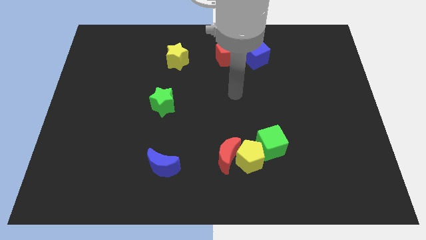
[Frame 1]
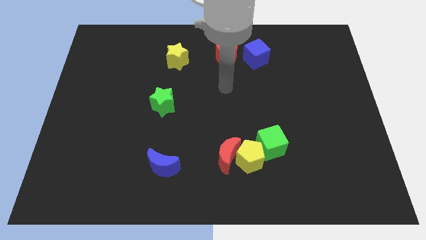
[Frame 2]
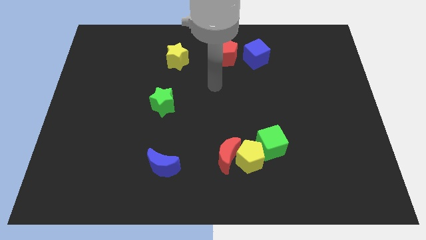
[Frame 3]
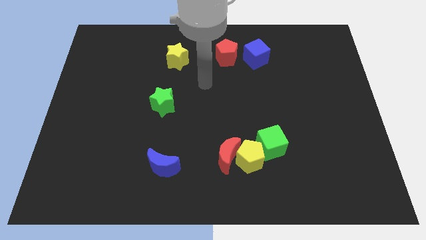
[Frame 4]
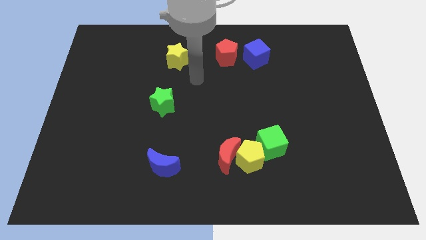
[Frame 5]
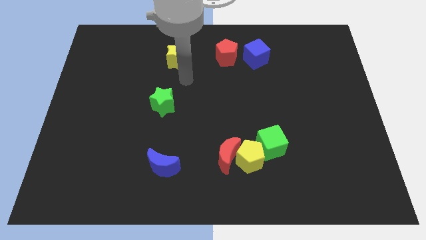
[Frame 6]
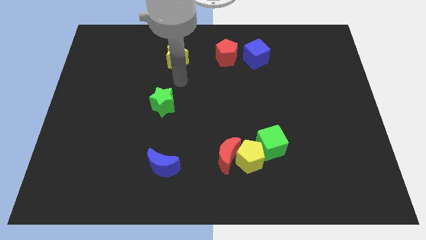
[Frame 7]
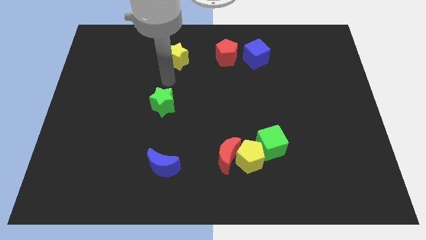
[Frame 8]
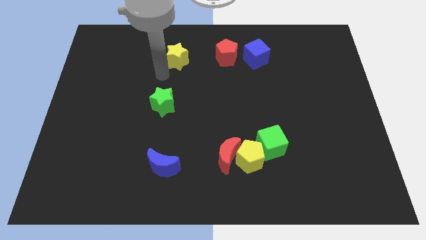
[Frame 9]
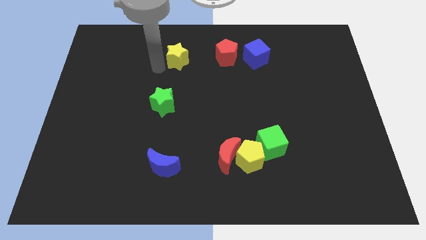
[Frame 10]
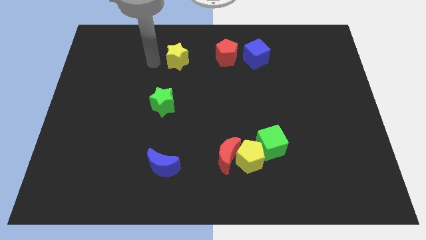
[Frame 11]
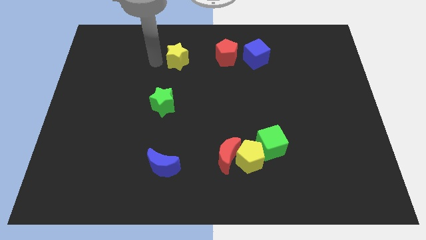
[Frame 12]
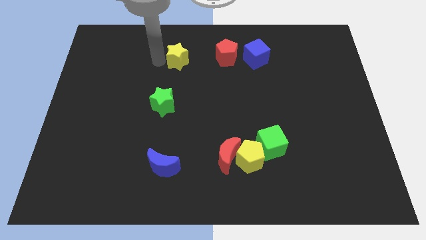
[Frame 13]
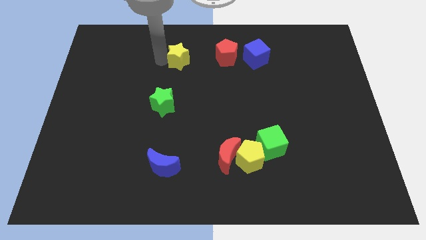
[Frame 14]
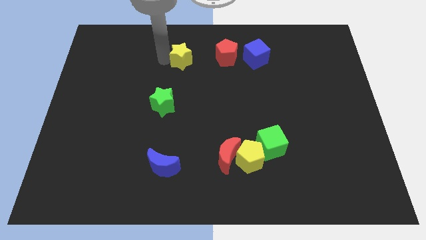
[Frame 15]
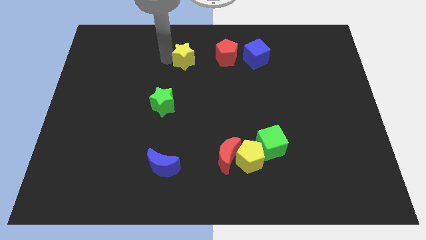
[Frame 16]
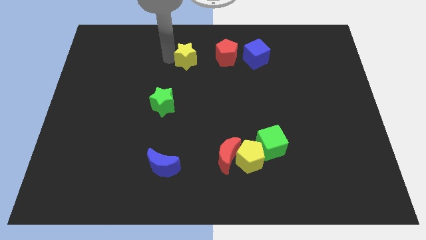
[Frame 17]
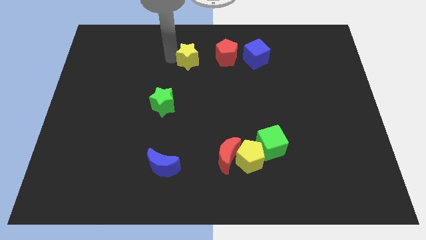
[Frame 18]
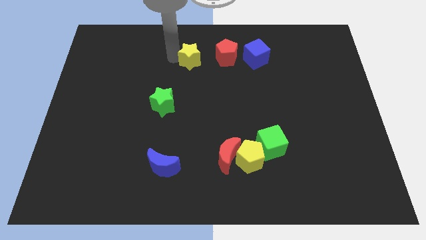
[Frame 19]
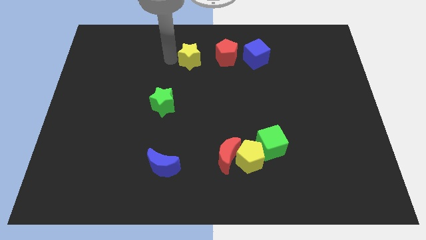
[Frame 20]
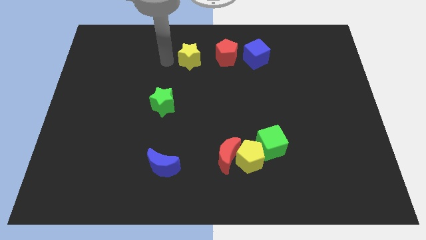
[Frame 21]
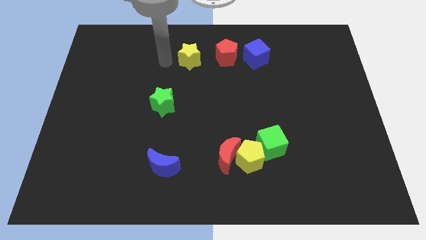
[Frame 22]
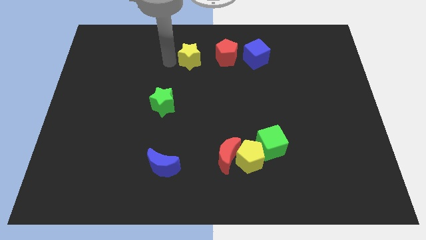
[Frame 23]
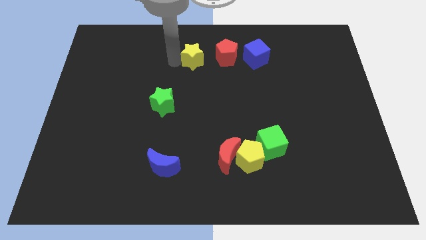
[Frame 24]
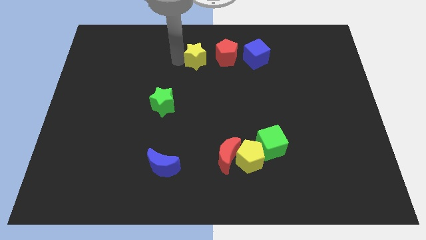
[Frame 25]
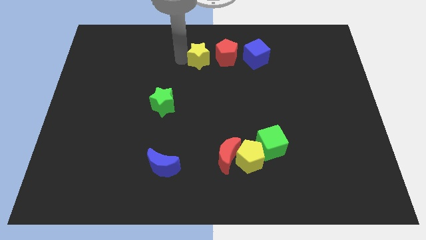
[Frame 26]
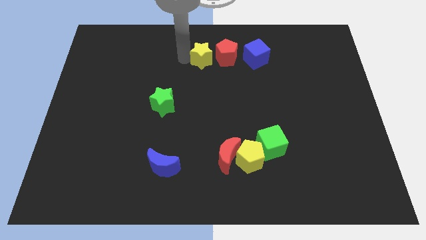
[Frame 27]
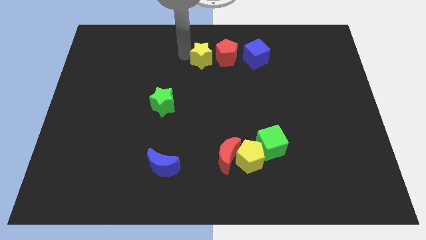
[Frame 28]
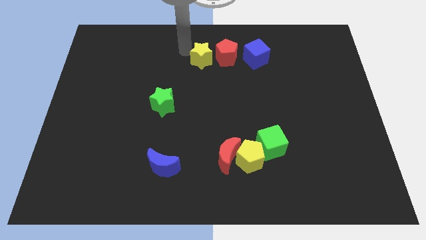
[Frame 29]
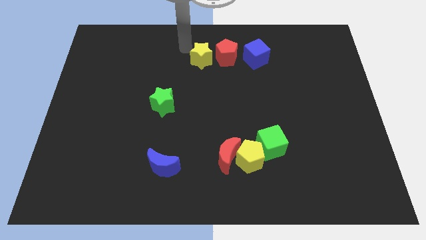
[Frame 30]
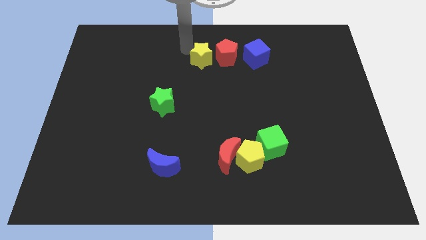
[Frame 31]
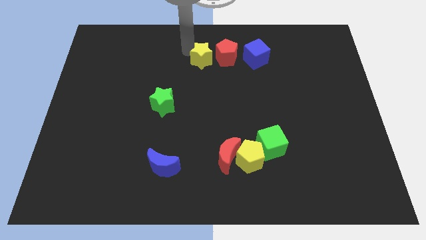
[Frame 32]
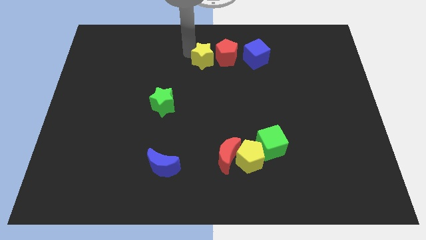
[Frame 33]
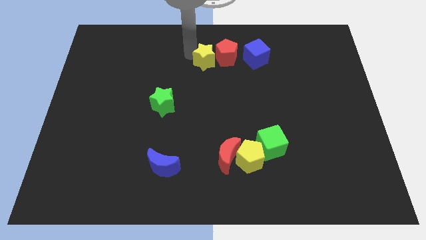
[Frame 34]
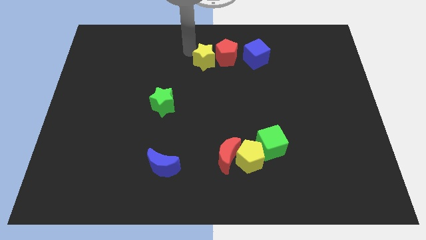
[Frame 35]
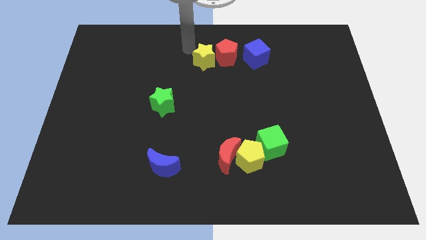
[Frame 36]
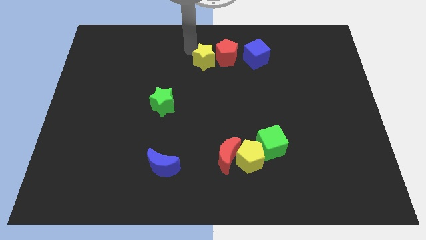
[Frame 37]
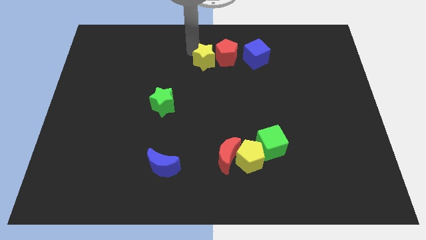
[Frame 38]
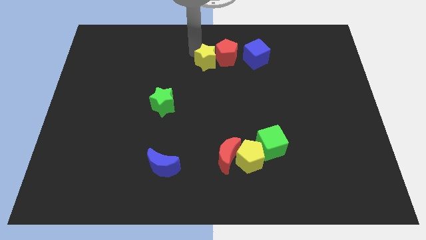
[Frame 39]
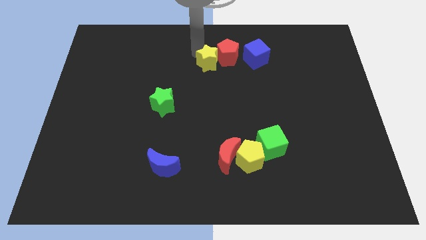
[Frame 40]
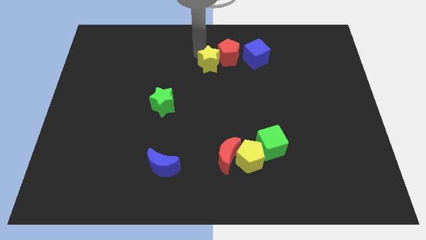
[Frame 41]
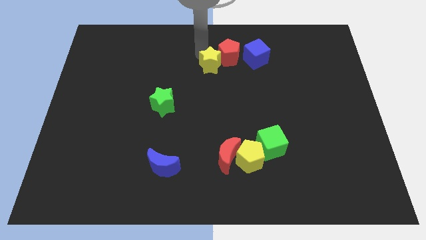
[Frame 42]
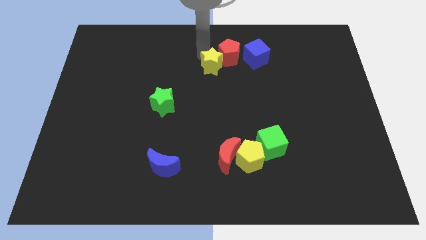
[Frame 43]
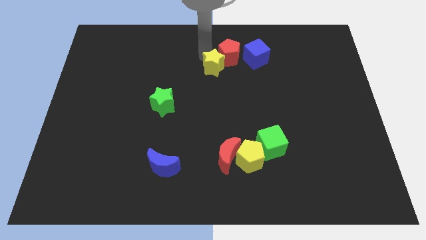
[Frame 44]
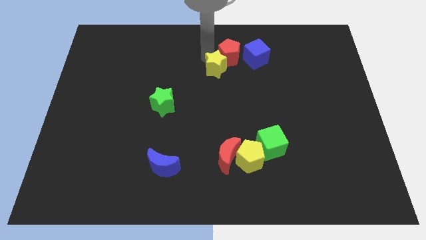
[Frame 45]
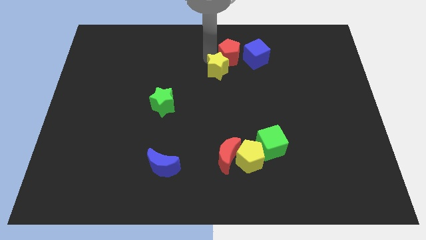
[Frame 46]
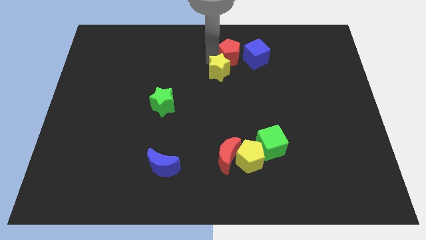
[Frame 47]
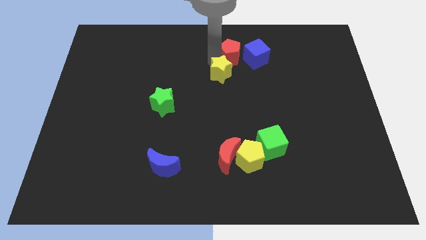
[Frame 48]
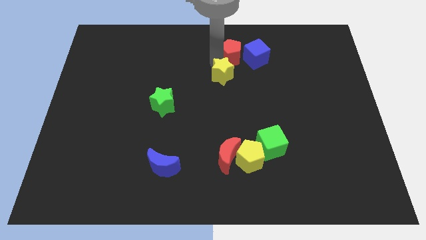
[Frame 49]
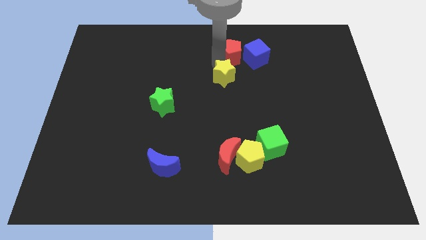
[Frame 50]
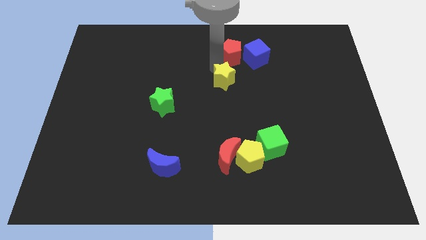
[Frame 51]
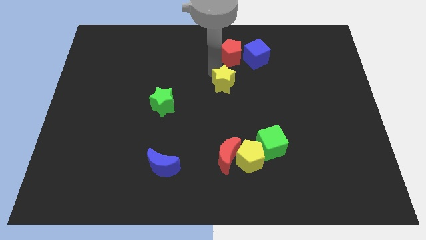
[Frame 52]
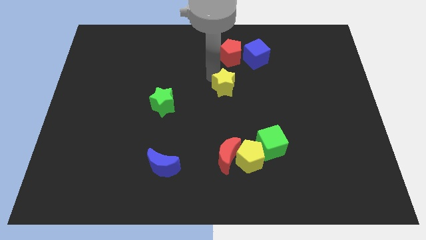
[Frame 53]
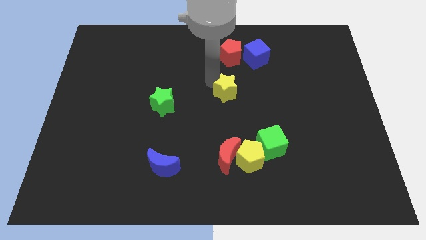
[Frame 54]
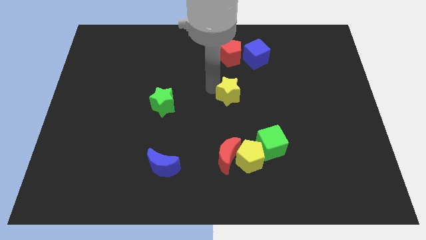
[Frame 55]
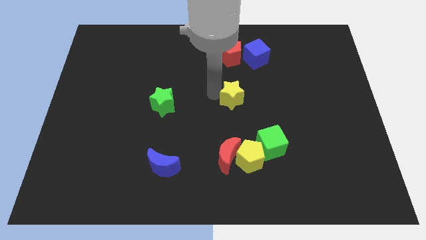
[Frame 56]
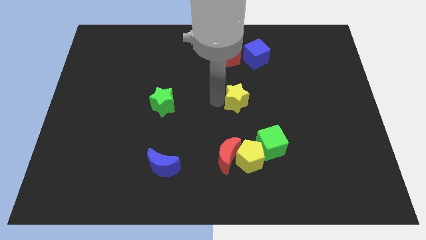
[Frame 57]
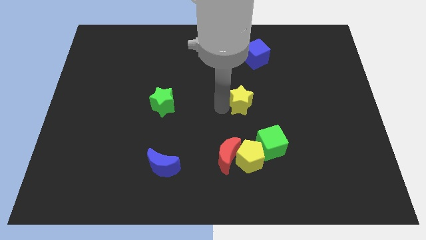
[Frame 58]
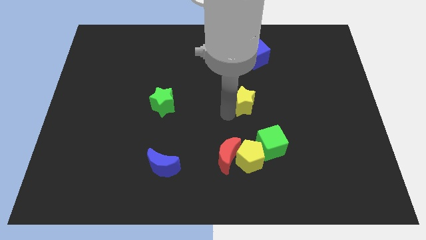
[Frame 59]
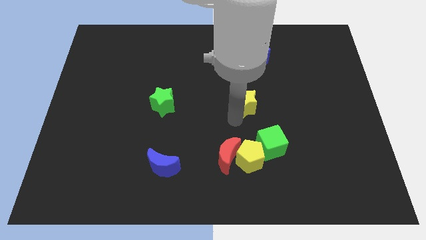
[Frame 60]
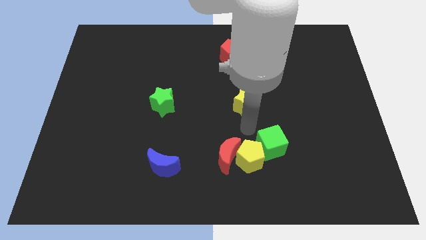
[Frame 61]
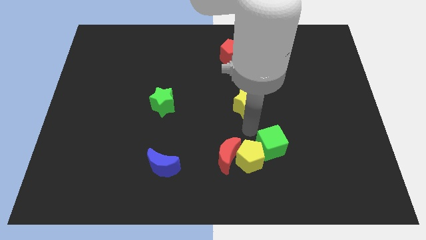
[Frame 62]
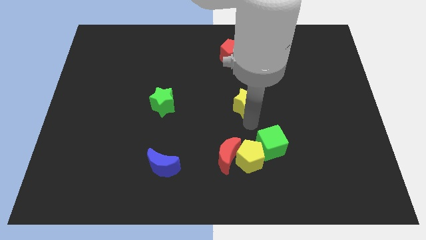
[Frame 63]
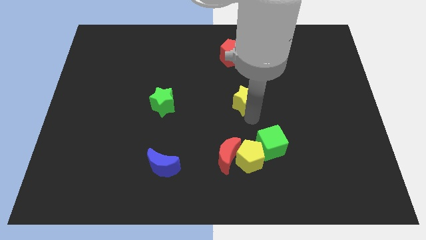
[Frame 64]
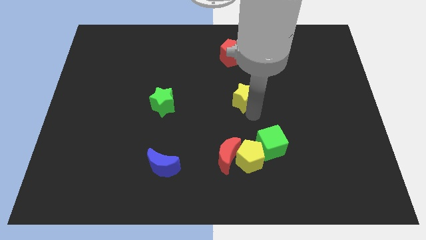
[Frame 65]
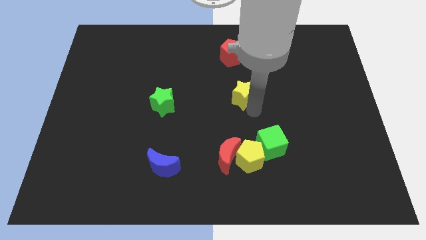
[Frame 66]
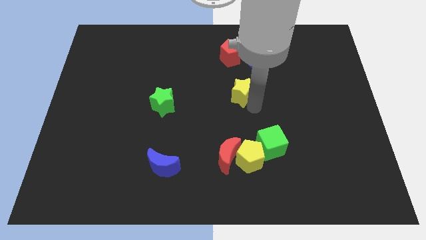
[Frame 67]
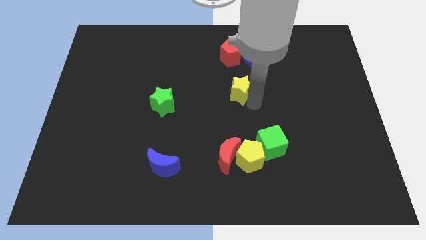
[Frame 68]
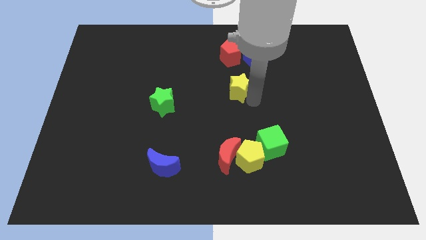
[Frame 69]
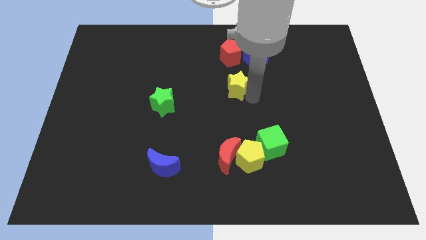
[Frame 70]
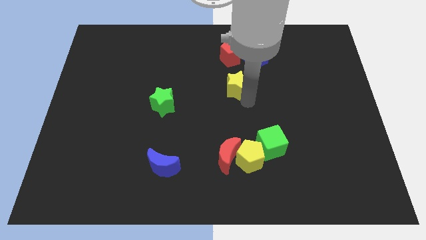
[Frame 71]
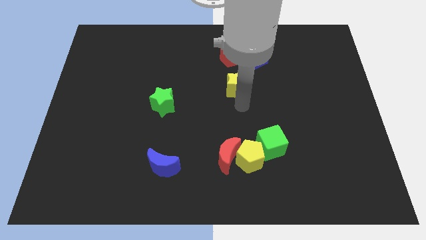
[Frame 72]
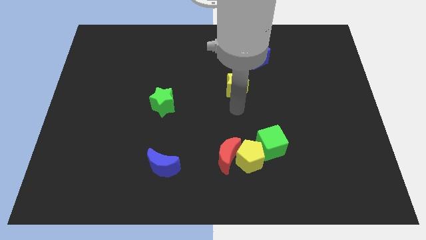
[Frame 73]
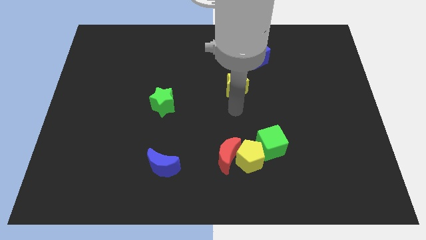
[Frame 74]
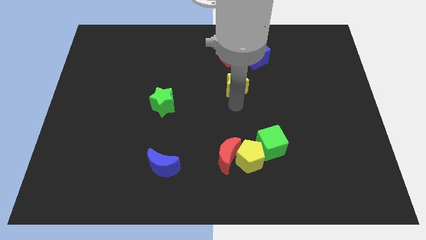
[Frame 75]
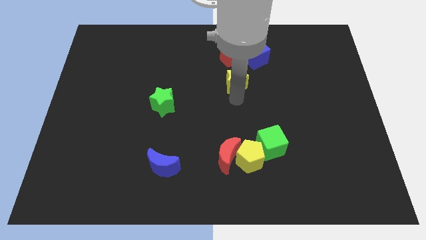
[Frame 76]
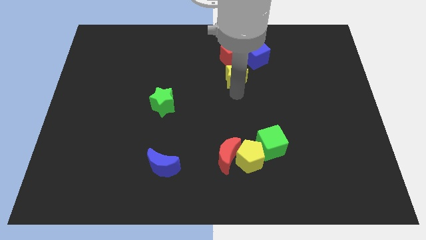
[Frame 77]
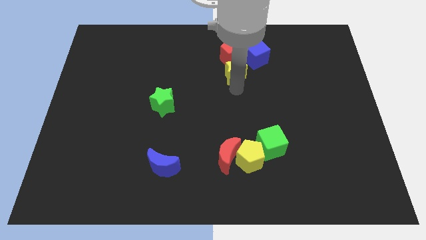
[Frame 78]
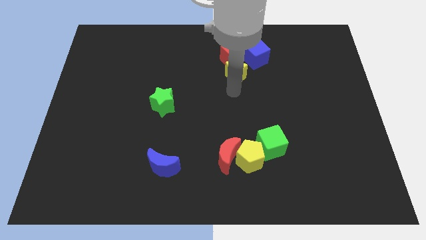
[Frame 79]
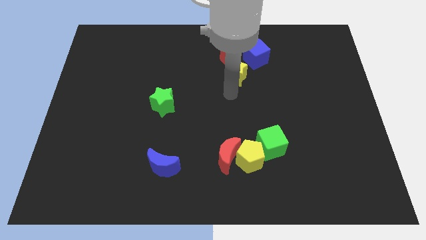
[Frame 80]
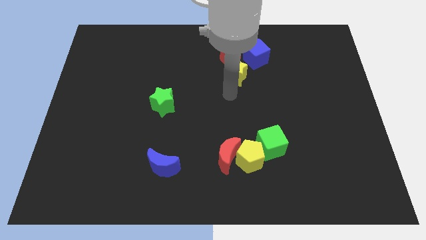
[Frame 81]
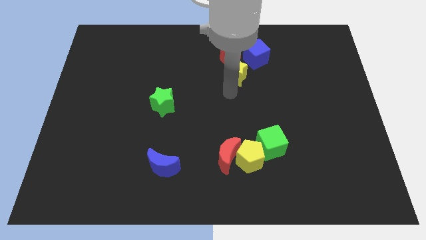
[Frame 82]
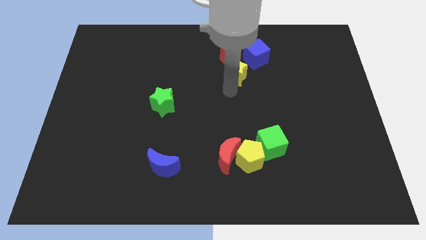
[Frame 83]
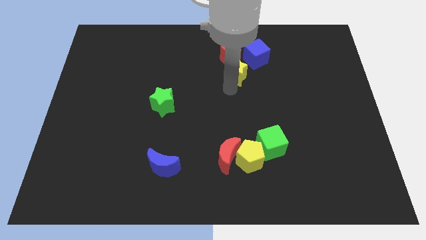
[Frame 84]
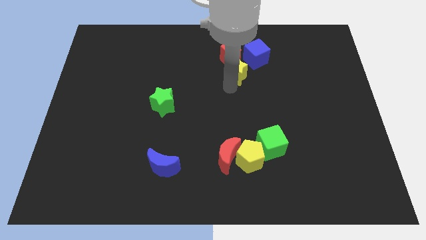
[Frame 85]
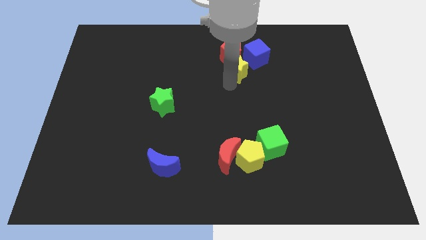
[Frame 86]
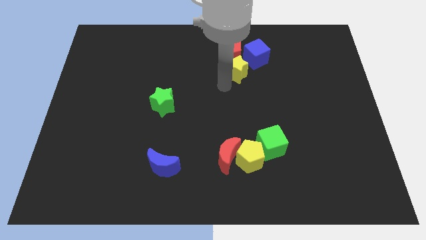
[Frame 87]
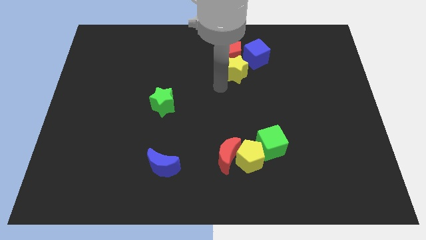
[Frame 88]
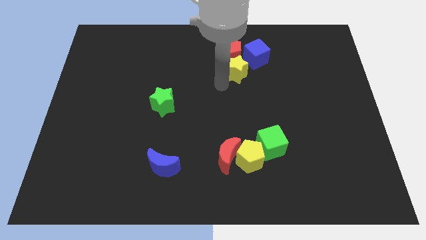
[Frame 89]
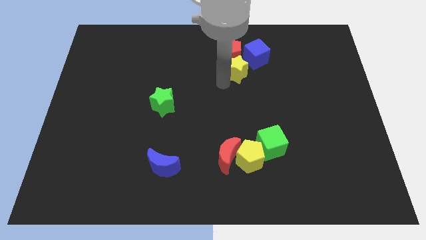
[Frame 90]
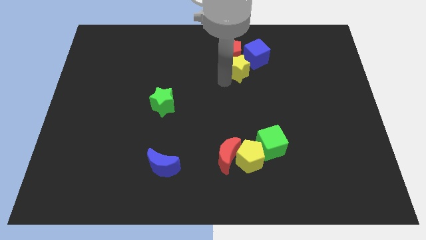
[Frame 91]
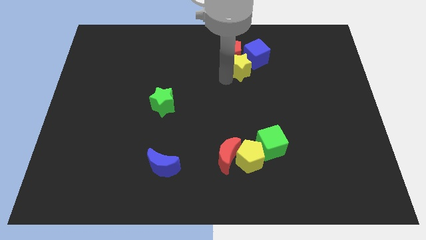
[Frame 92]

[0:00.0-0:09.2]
slide the yellow star next to the blue cube
